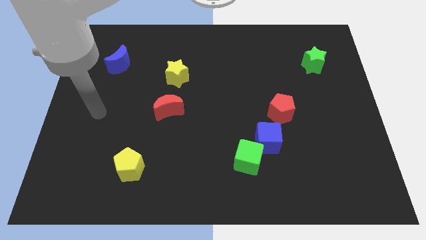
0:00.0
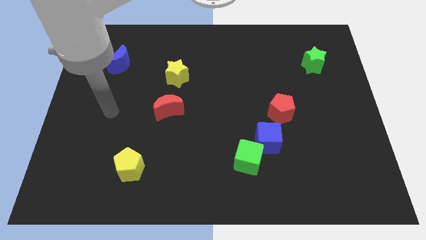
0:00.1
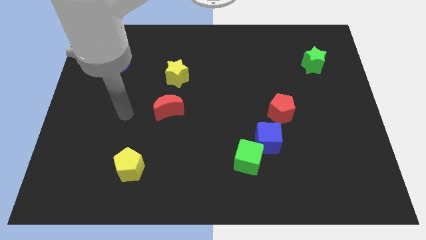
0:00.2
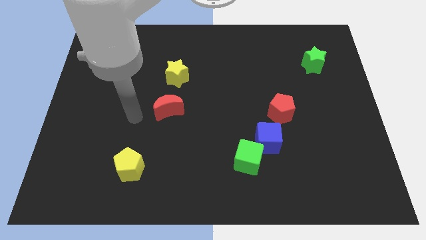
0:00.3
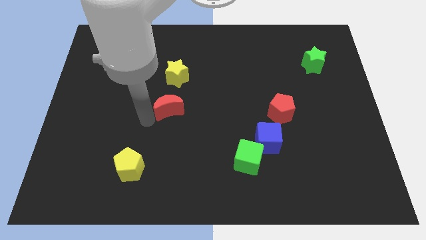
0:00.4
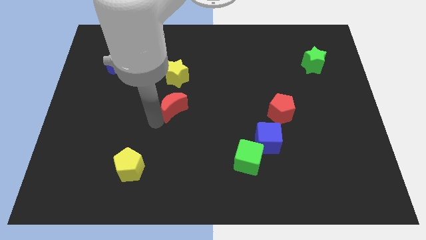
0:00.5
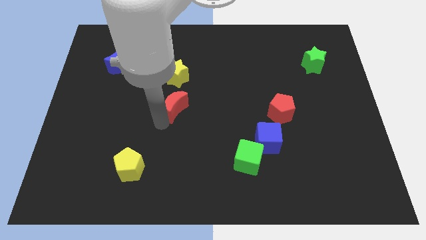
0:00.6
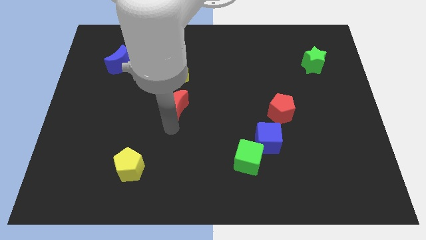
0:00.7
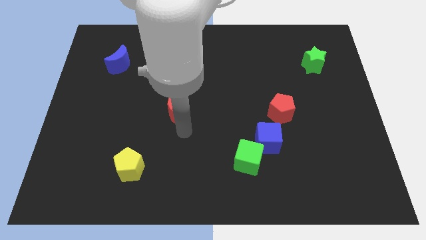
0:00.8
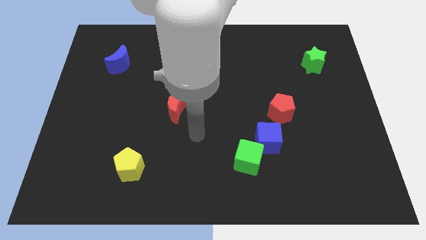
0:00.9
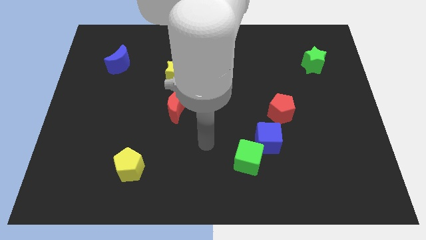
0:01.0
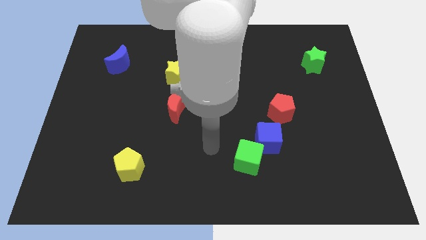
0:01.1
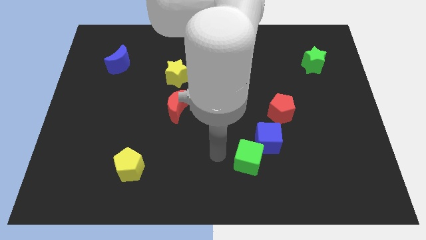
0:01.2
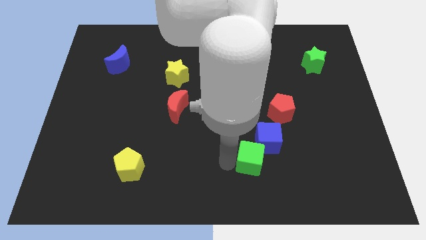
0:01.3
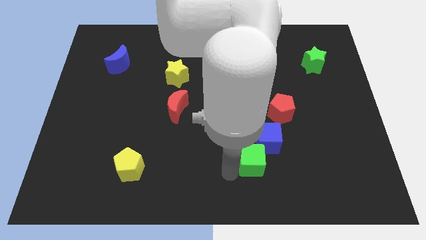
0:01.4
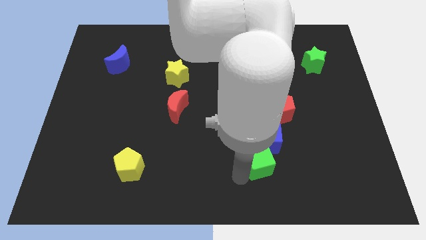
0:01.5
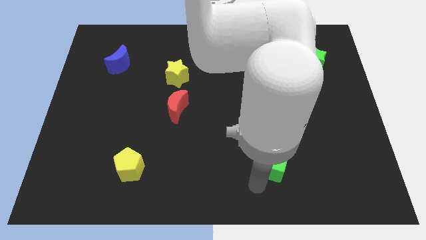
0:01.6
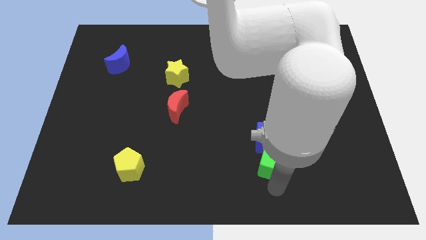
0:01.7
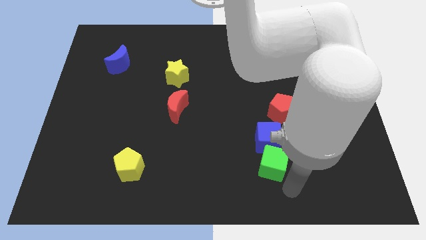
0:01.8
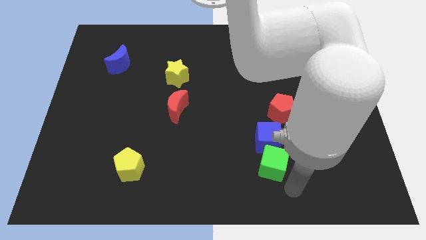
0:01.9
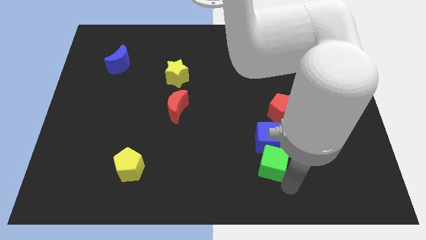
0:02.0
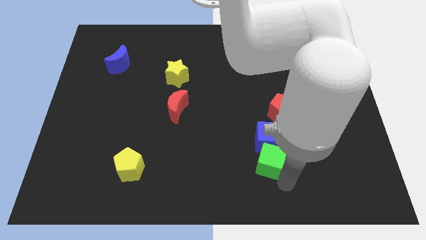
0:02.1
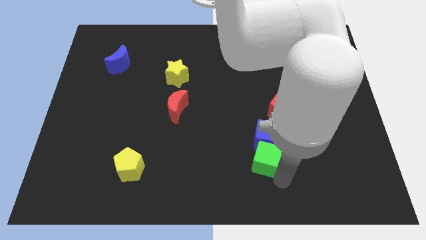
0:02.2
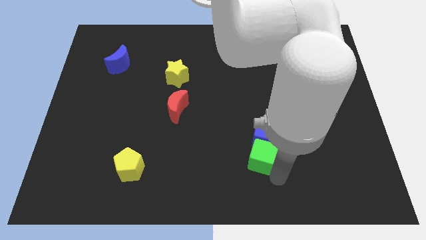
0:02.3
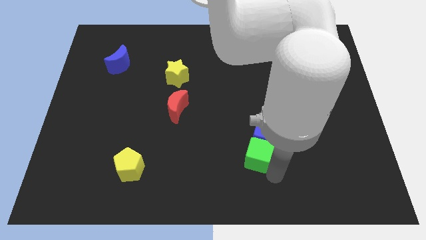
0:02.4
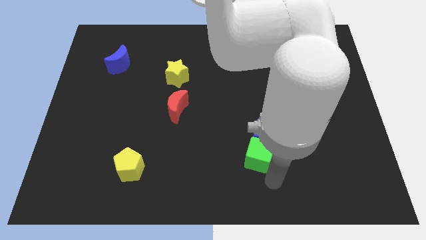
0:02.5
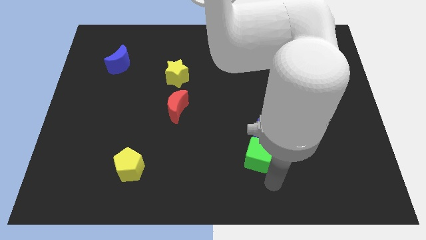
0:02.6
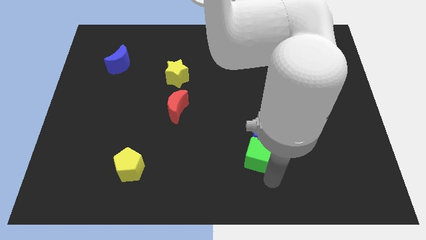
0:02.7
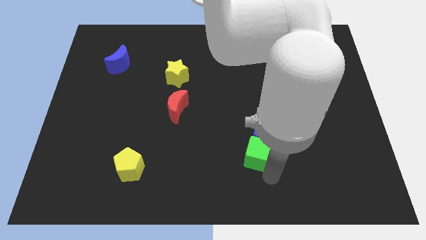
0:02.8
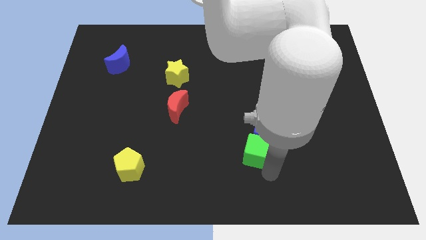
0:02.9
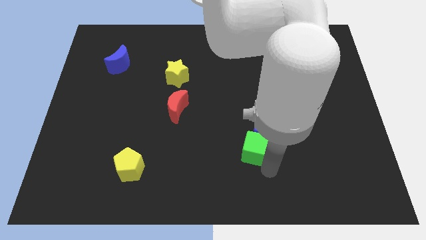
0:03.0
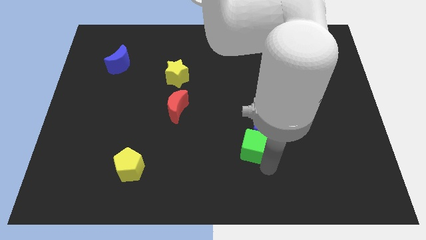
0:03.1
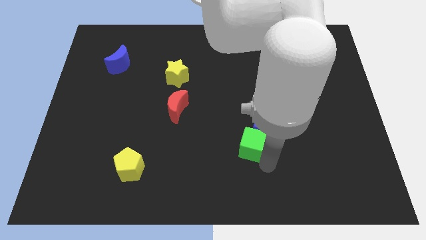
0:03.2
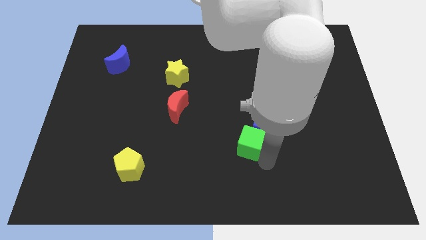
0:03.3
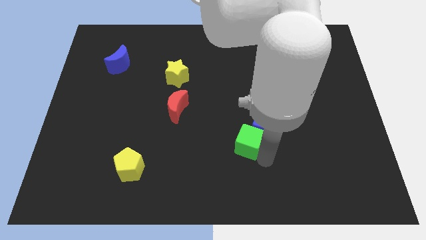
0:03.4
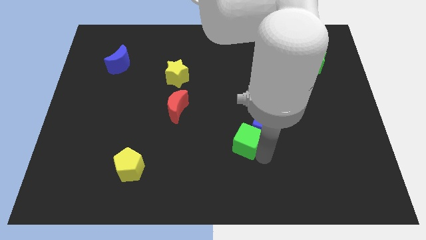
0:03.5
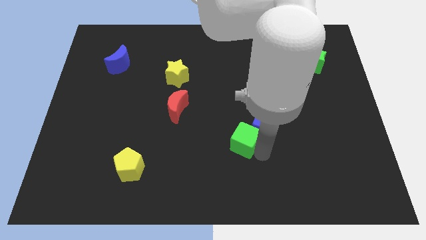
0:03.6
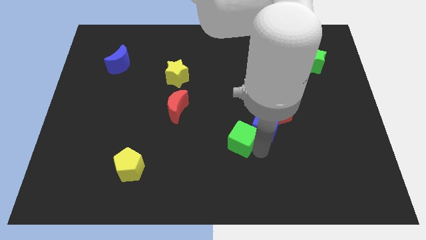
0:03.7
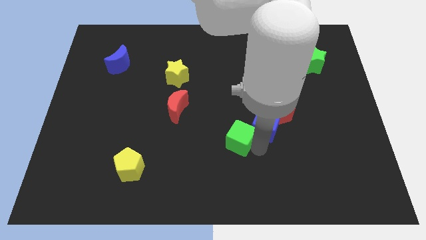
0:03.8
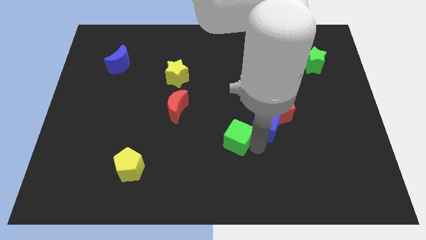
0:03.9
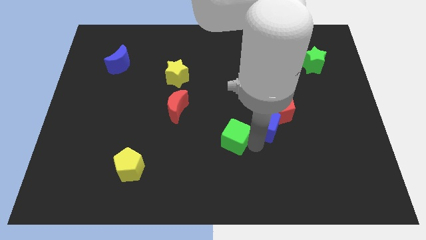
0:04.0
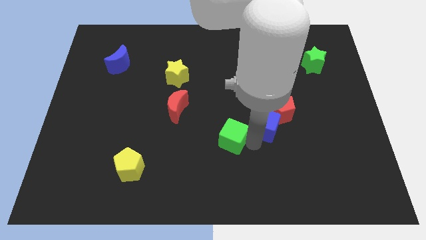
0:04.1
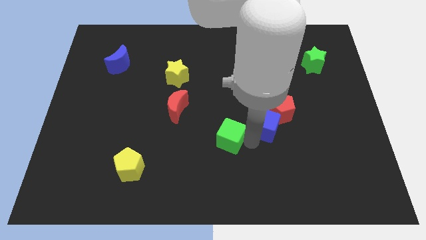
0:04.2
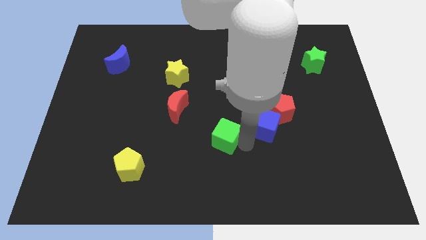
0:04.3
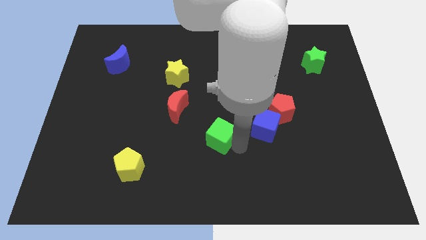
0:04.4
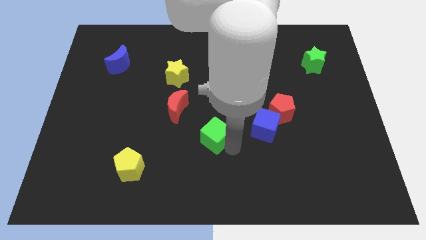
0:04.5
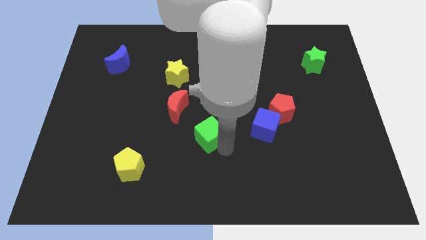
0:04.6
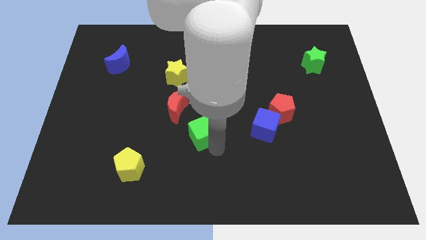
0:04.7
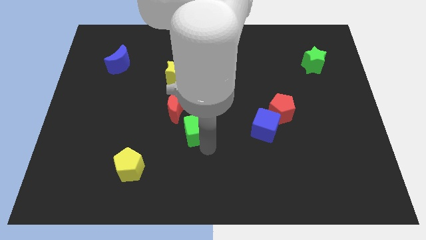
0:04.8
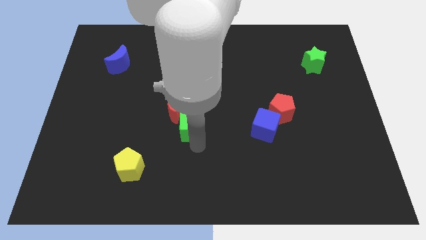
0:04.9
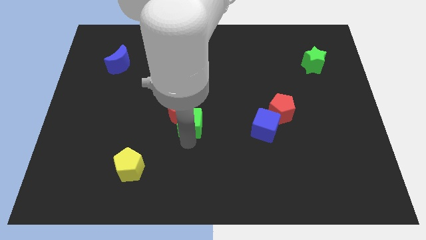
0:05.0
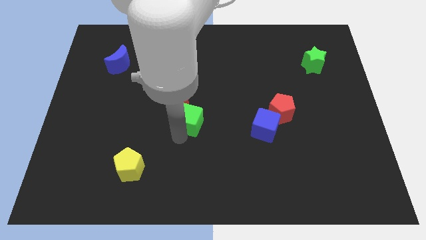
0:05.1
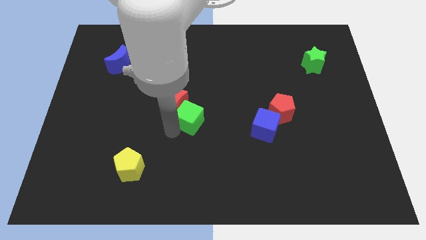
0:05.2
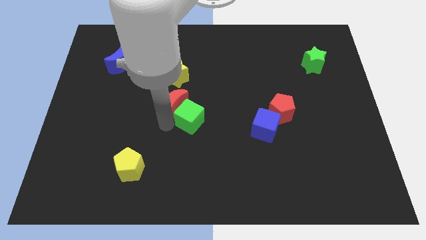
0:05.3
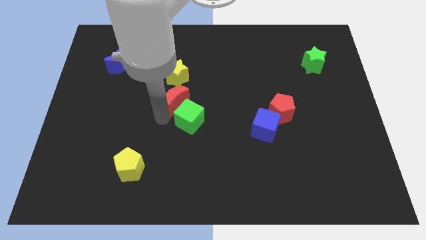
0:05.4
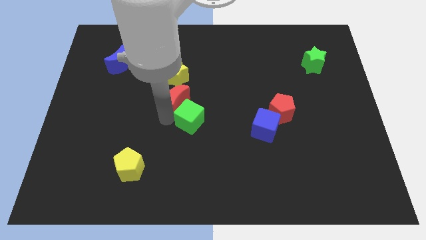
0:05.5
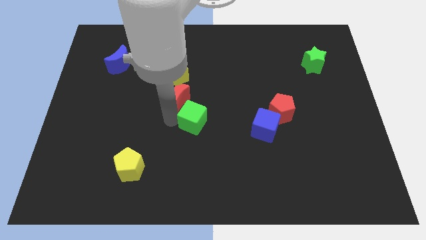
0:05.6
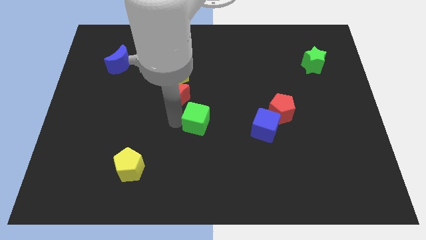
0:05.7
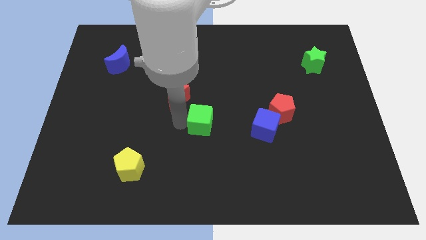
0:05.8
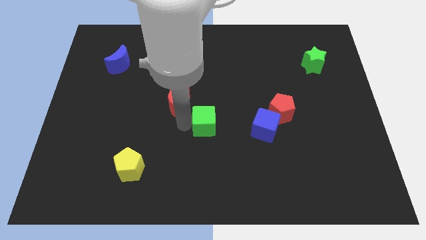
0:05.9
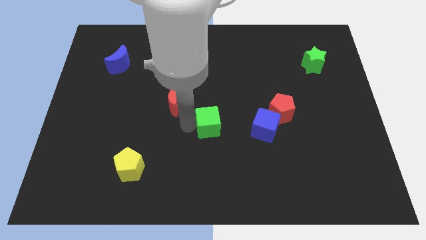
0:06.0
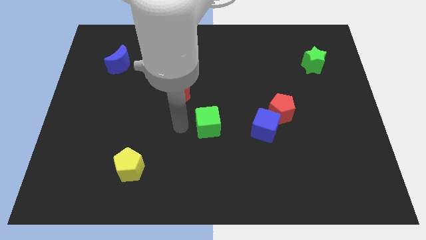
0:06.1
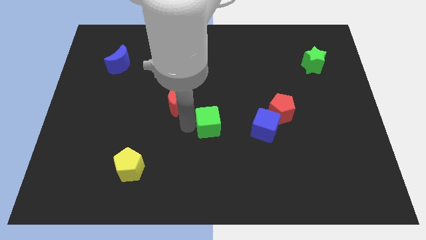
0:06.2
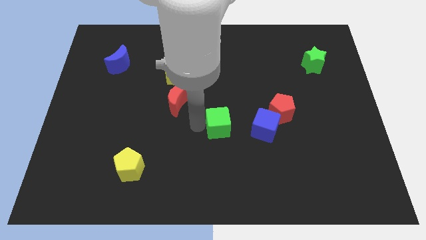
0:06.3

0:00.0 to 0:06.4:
push the green cube up a little bit

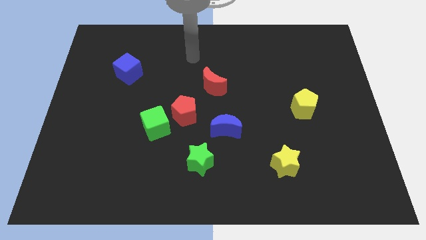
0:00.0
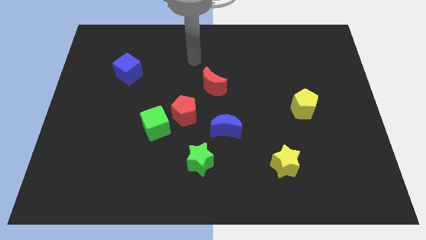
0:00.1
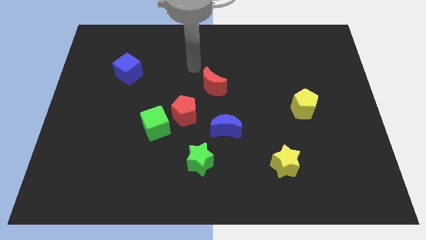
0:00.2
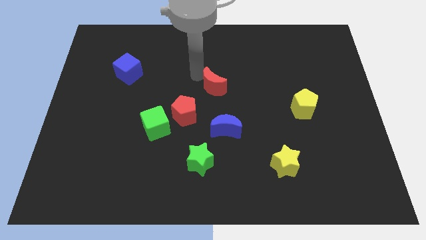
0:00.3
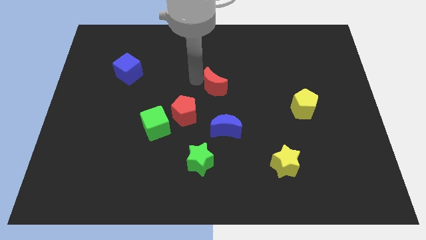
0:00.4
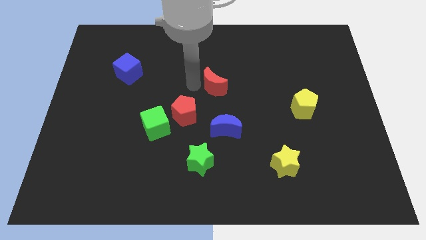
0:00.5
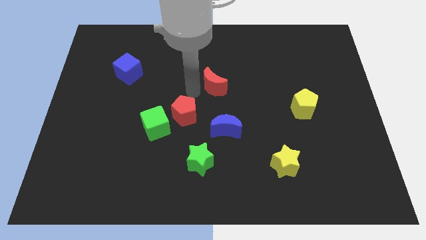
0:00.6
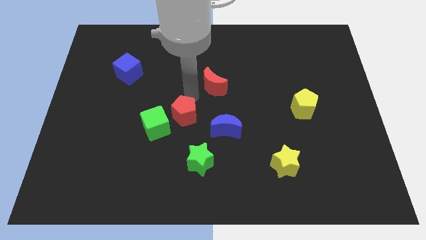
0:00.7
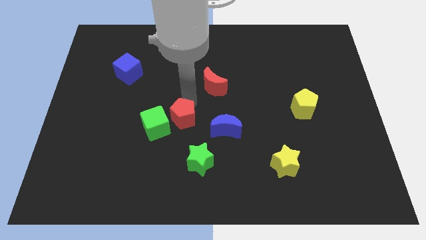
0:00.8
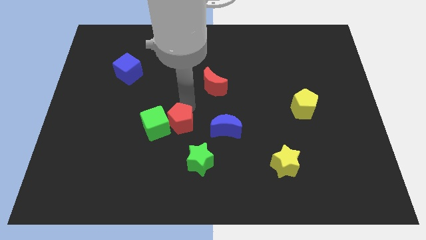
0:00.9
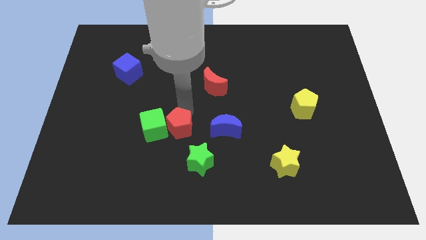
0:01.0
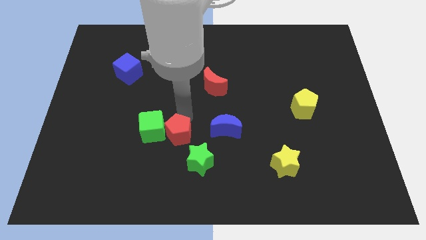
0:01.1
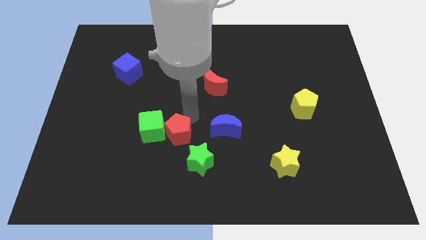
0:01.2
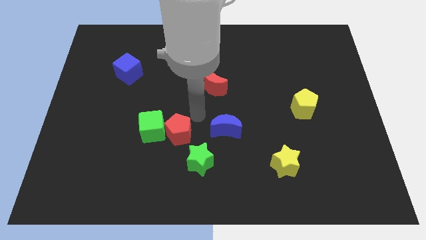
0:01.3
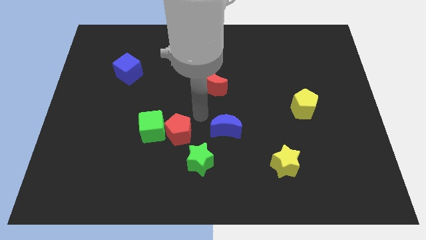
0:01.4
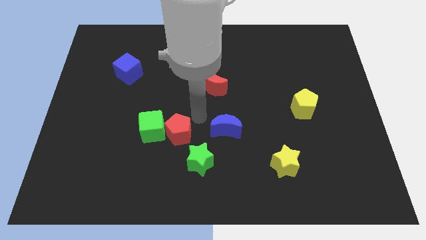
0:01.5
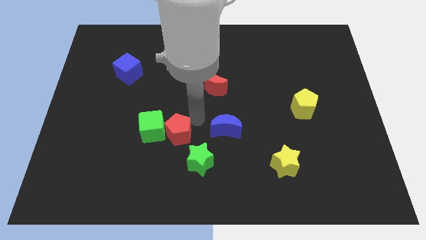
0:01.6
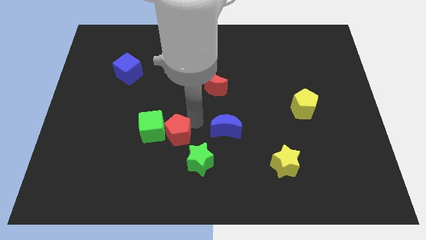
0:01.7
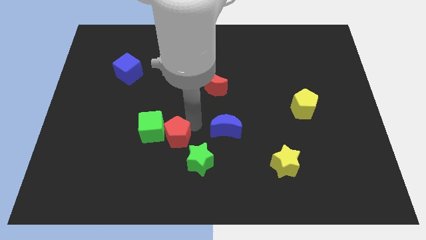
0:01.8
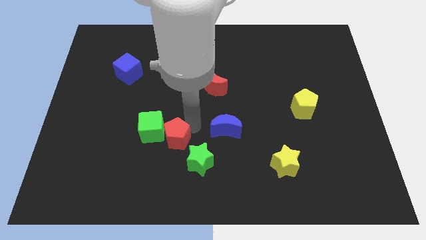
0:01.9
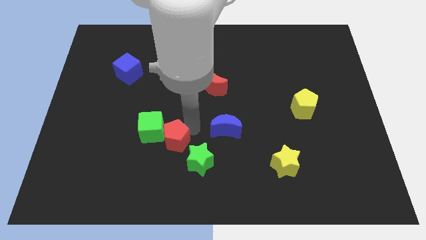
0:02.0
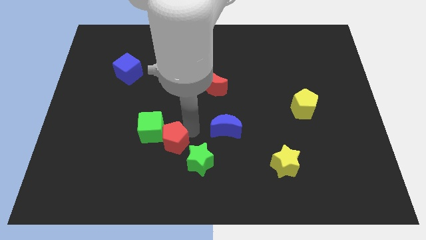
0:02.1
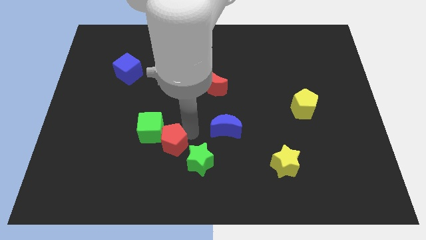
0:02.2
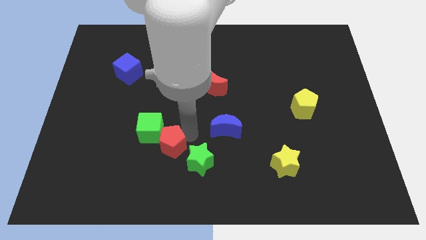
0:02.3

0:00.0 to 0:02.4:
move the red pentagon diagonally downwards and left somewhat
